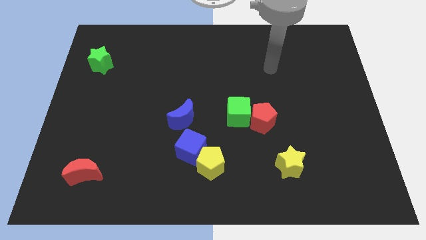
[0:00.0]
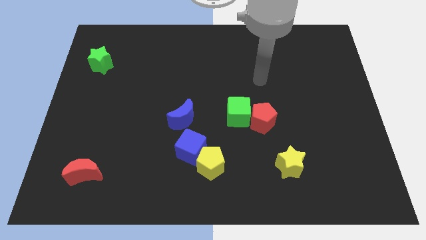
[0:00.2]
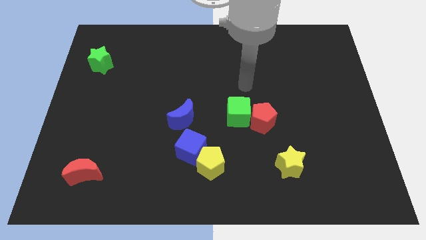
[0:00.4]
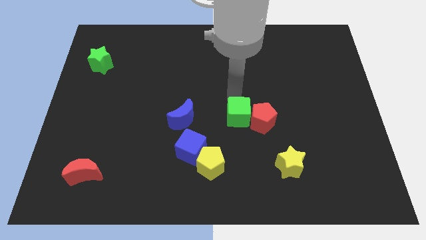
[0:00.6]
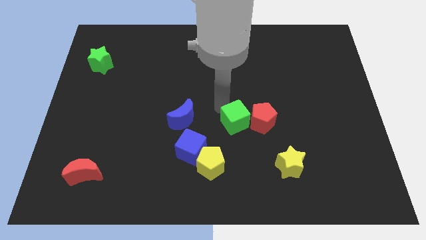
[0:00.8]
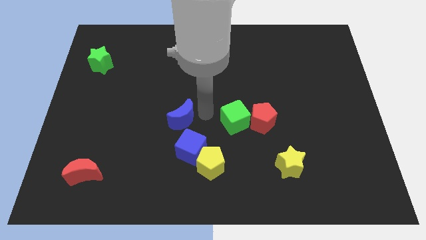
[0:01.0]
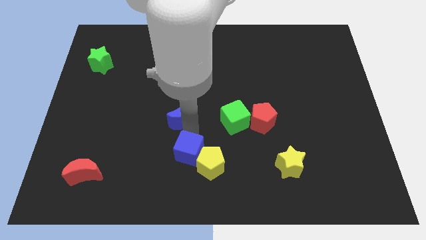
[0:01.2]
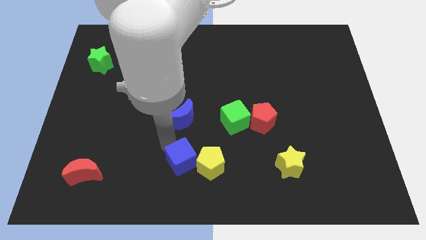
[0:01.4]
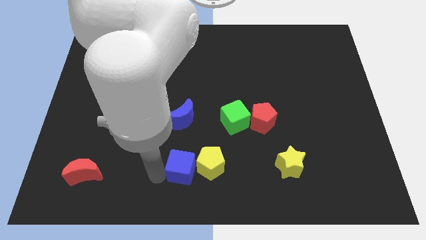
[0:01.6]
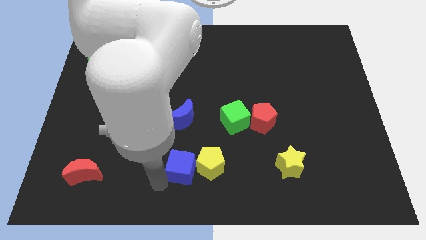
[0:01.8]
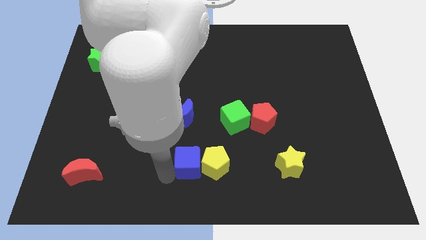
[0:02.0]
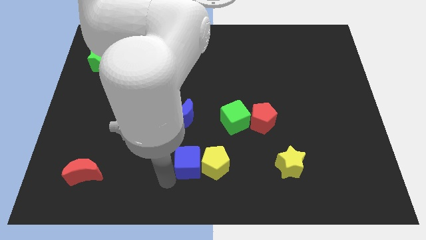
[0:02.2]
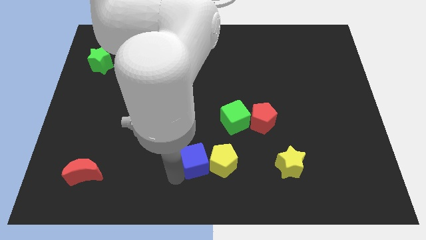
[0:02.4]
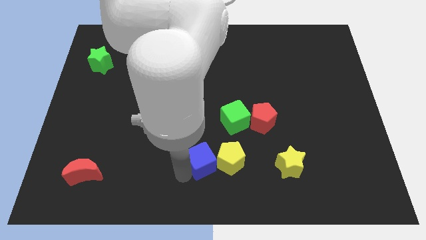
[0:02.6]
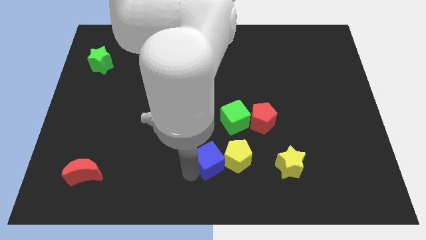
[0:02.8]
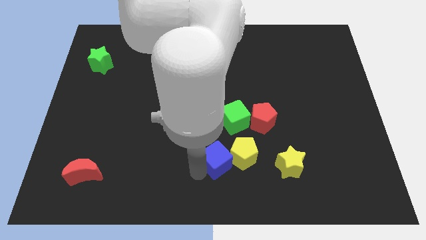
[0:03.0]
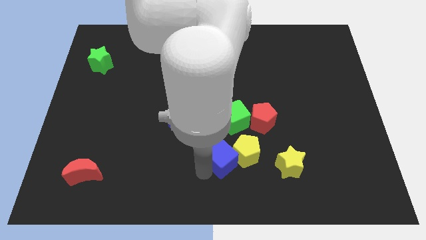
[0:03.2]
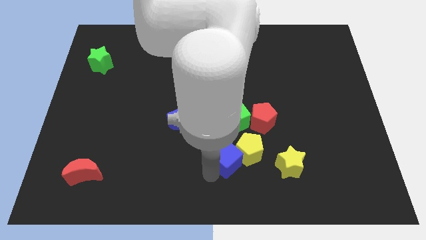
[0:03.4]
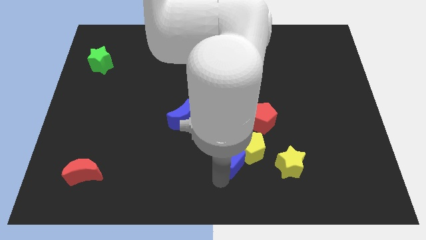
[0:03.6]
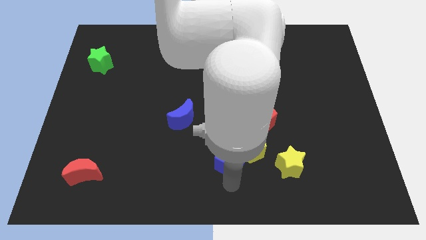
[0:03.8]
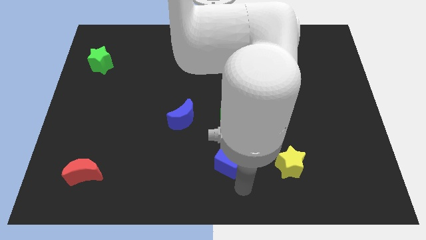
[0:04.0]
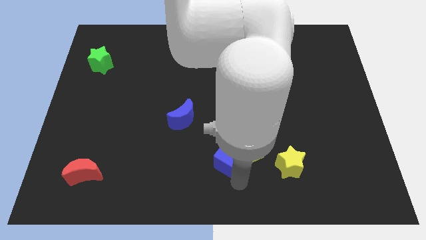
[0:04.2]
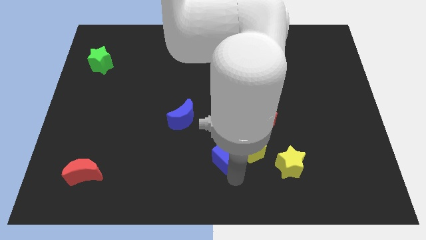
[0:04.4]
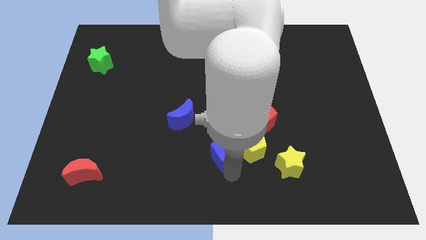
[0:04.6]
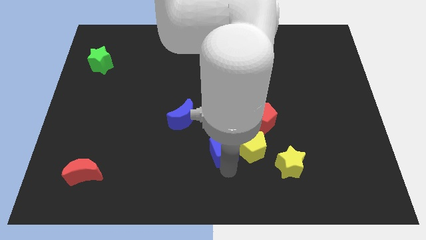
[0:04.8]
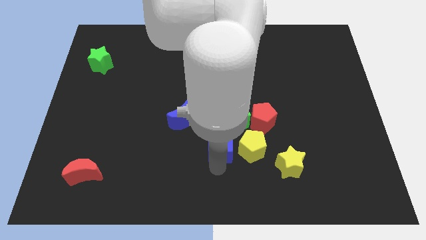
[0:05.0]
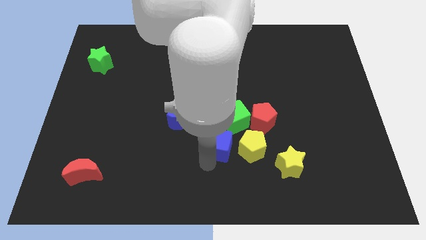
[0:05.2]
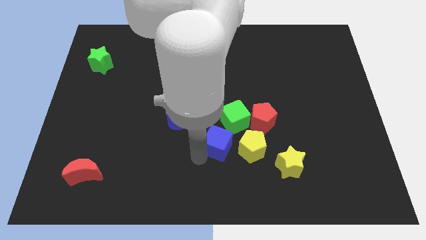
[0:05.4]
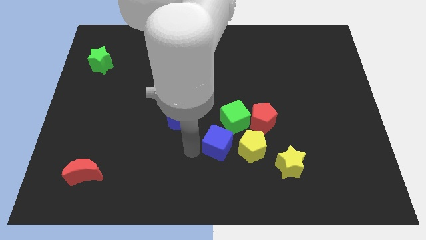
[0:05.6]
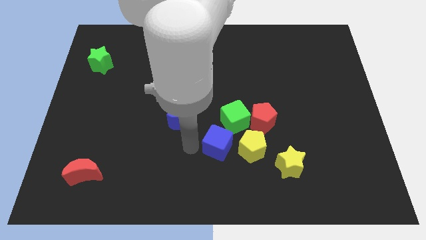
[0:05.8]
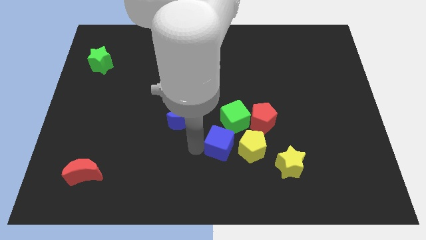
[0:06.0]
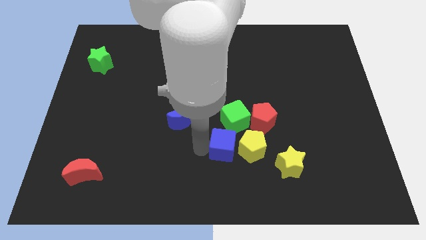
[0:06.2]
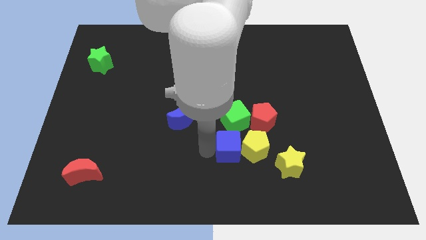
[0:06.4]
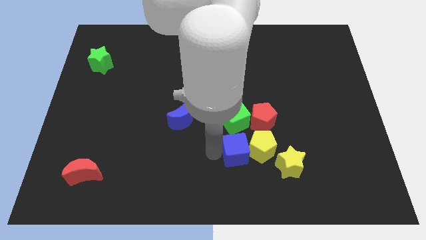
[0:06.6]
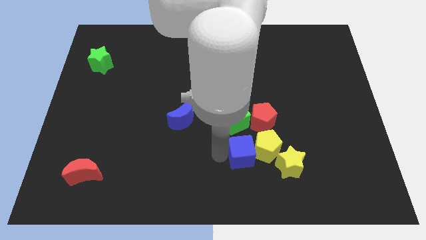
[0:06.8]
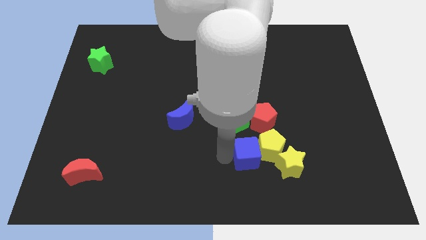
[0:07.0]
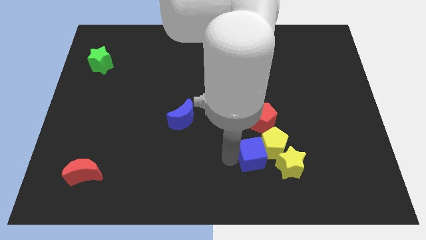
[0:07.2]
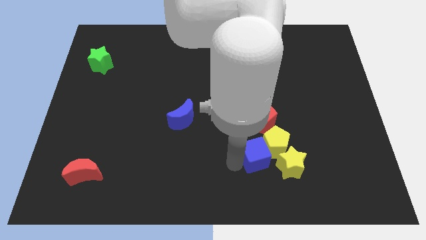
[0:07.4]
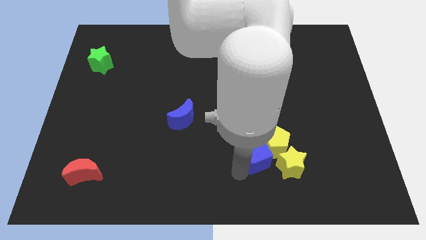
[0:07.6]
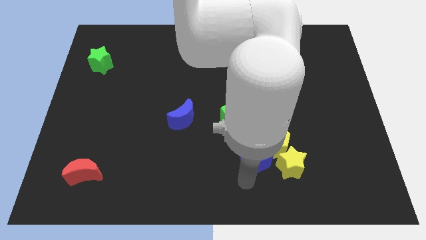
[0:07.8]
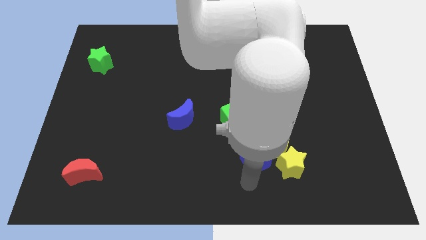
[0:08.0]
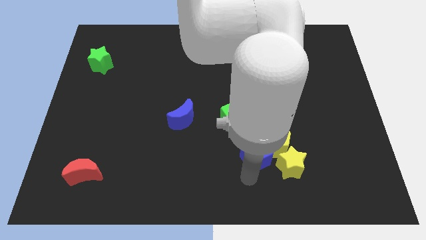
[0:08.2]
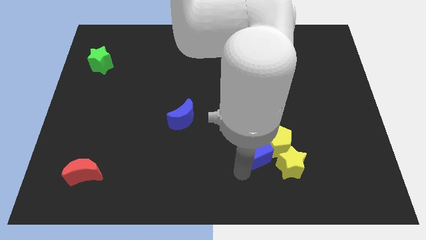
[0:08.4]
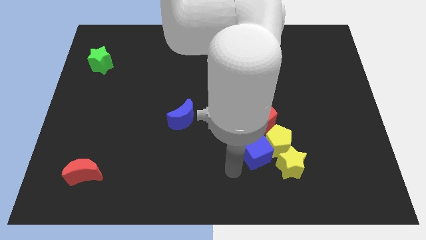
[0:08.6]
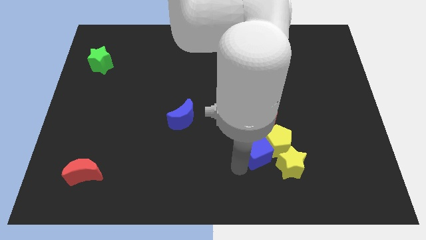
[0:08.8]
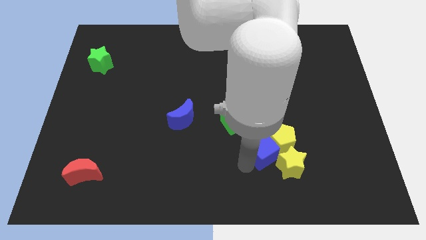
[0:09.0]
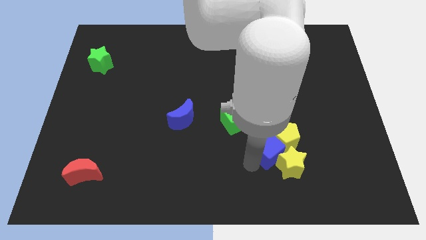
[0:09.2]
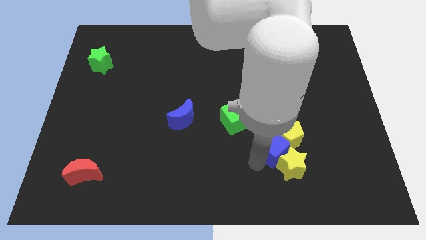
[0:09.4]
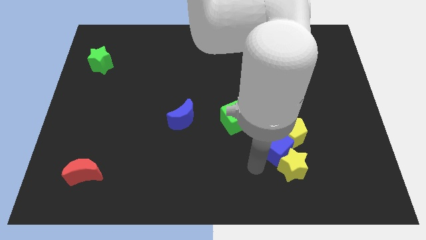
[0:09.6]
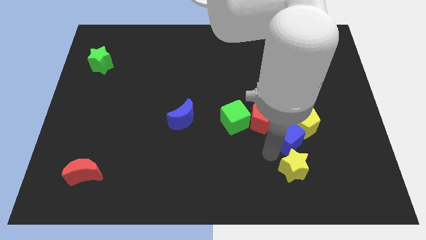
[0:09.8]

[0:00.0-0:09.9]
move the blue cube to the right of the red pentagon

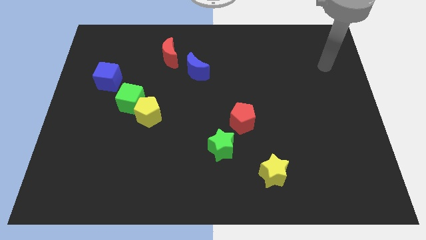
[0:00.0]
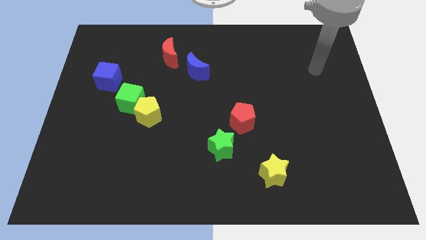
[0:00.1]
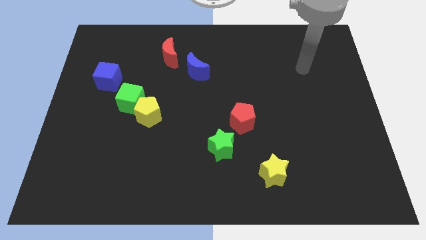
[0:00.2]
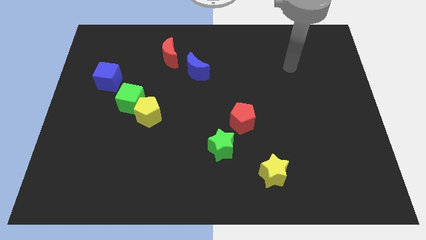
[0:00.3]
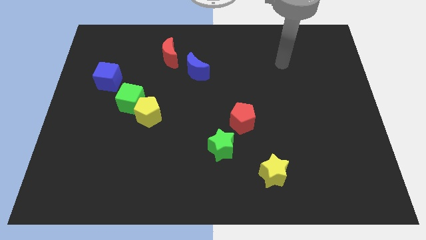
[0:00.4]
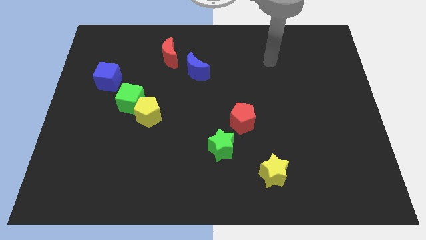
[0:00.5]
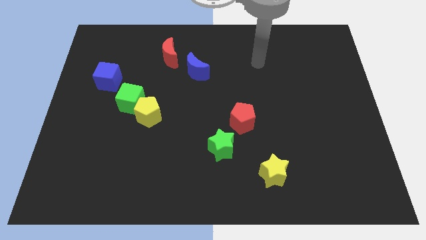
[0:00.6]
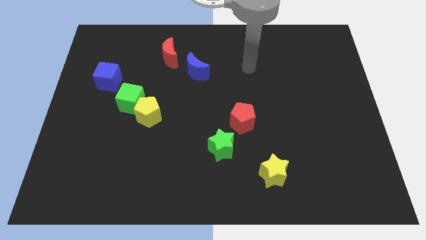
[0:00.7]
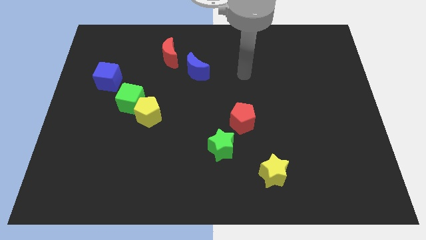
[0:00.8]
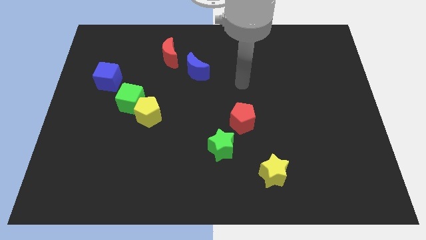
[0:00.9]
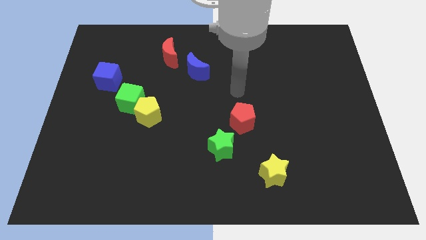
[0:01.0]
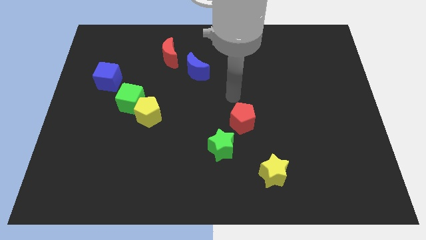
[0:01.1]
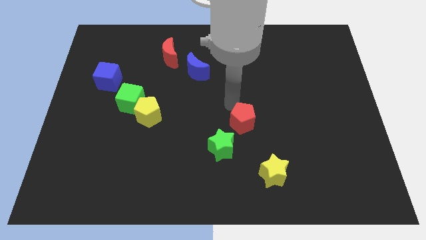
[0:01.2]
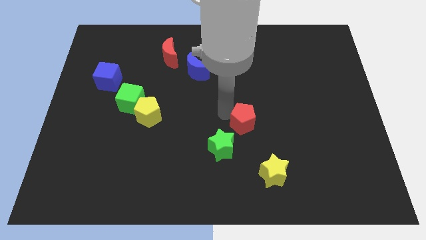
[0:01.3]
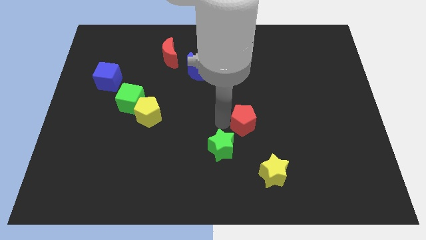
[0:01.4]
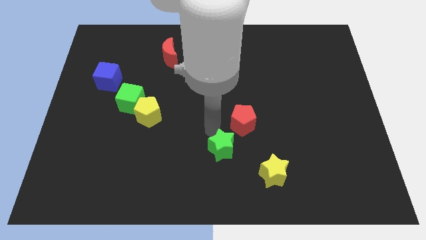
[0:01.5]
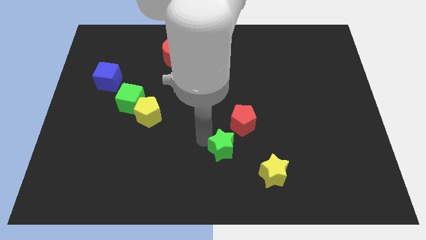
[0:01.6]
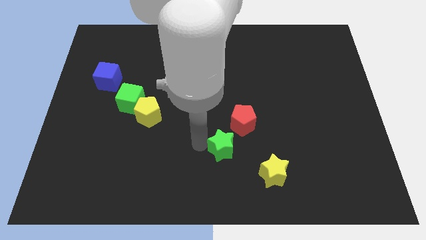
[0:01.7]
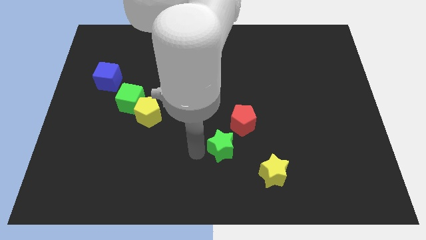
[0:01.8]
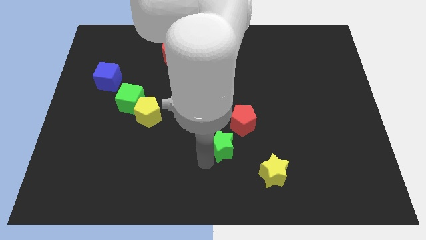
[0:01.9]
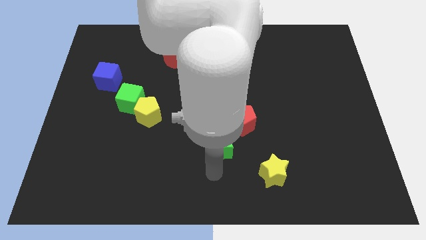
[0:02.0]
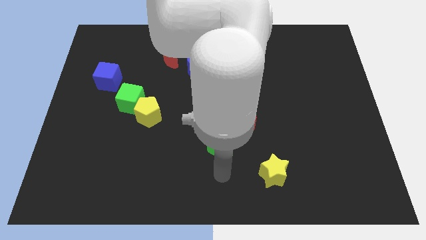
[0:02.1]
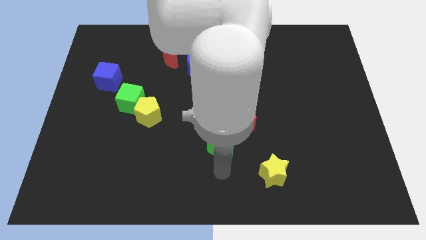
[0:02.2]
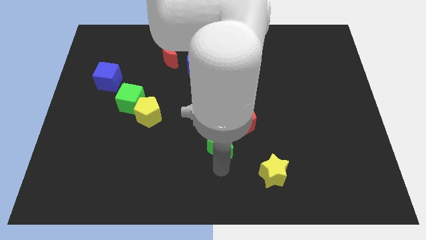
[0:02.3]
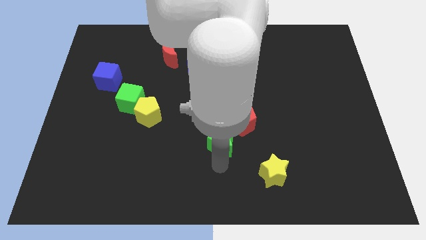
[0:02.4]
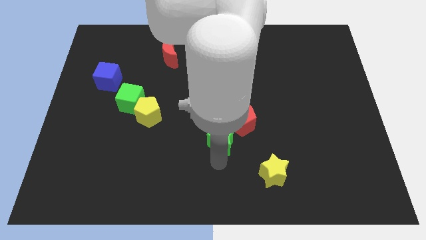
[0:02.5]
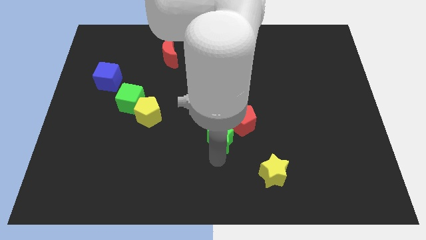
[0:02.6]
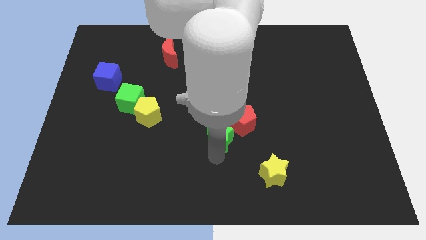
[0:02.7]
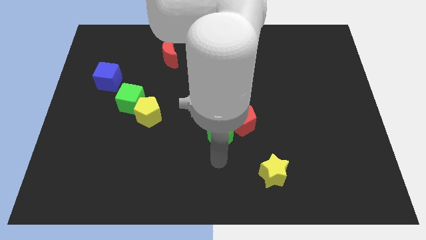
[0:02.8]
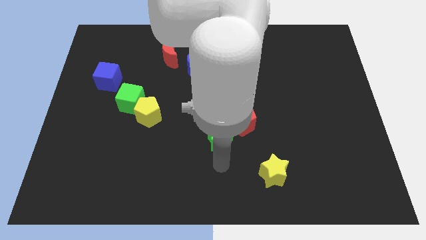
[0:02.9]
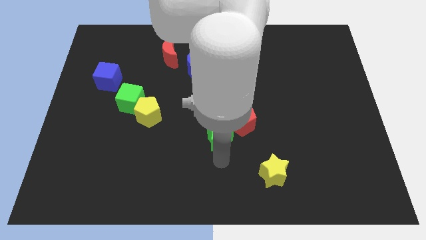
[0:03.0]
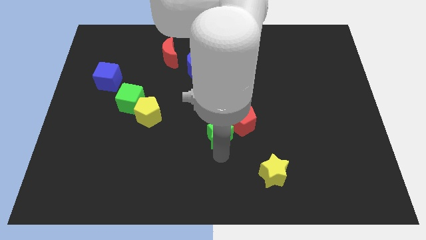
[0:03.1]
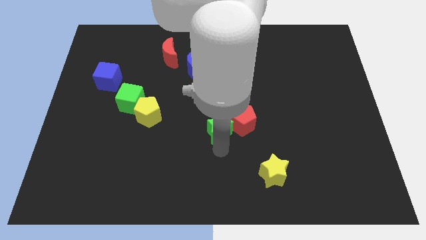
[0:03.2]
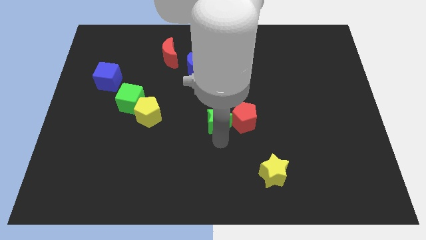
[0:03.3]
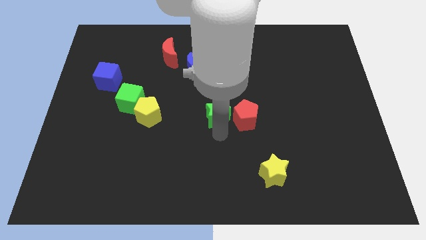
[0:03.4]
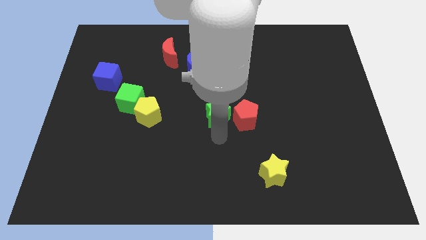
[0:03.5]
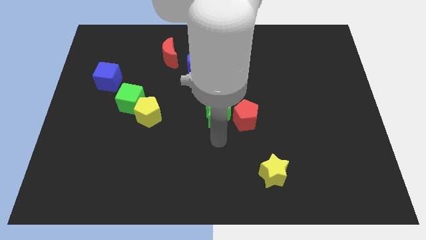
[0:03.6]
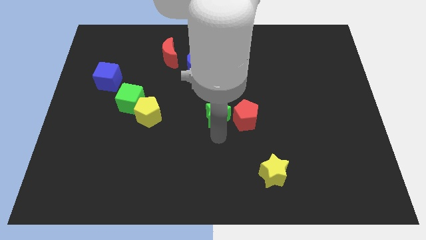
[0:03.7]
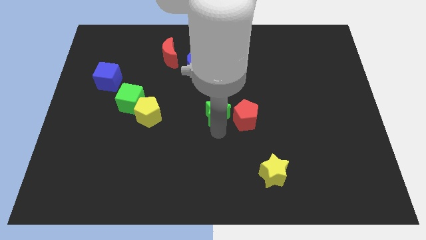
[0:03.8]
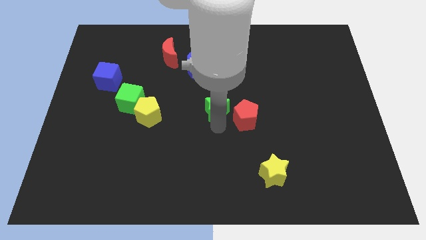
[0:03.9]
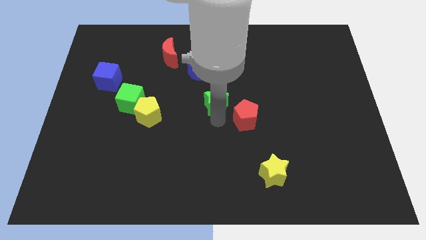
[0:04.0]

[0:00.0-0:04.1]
put the green star to the bottom right side of the blue moon
